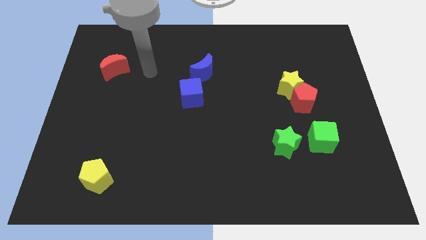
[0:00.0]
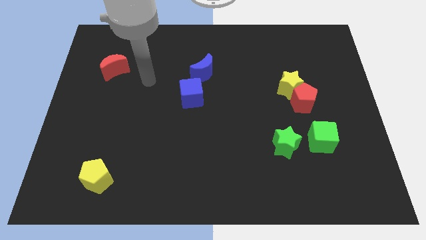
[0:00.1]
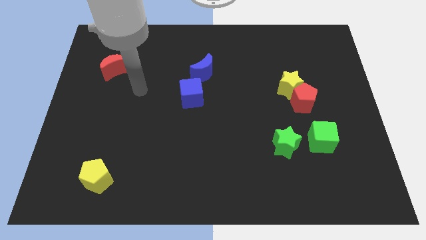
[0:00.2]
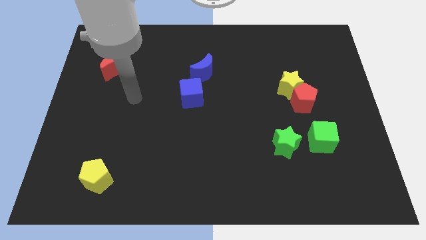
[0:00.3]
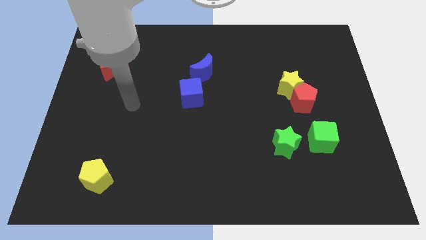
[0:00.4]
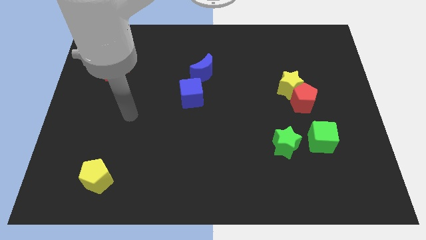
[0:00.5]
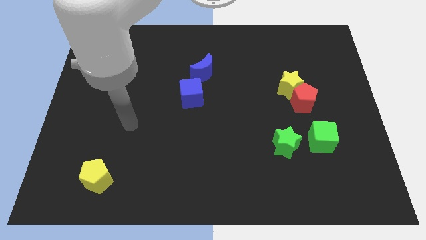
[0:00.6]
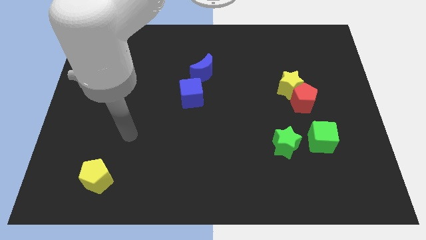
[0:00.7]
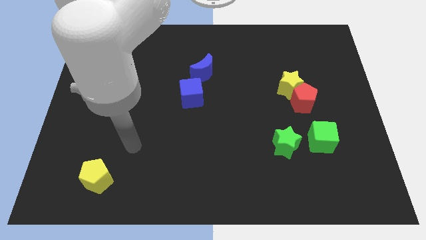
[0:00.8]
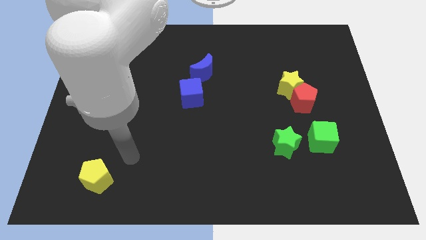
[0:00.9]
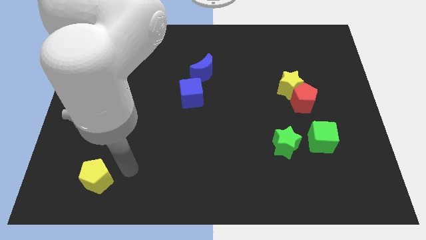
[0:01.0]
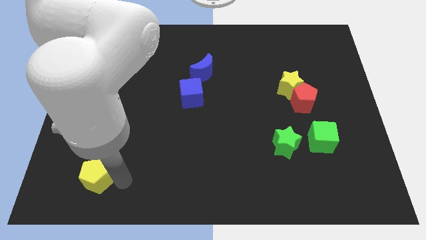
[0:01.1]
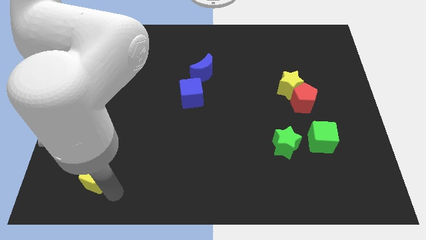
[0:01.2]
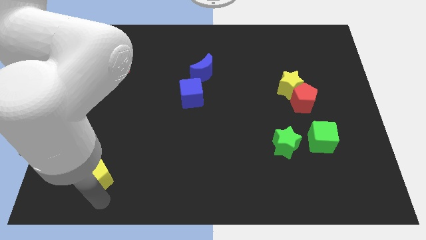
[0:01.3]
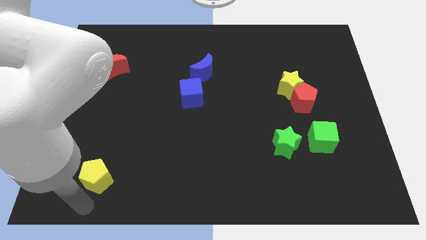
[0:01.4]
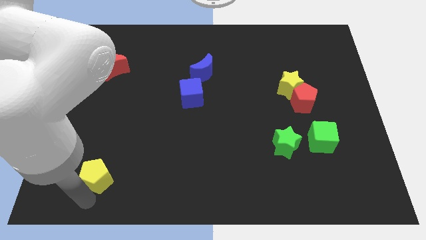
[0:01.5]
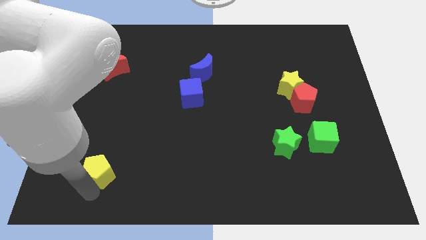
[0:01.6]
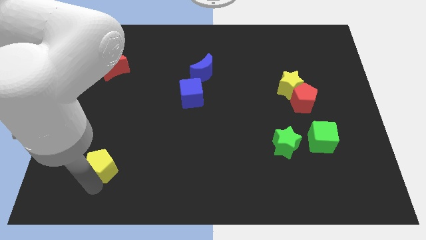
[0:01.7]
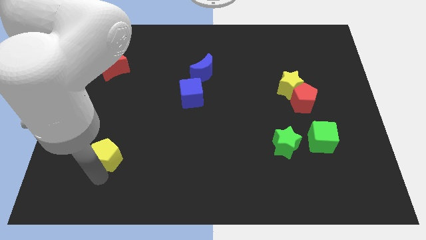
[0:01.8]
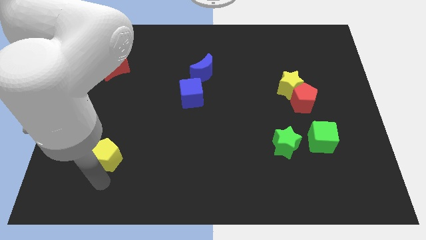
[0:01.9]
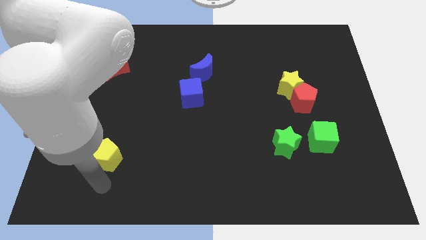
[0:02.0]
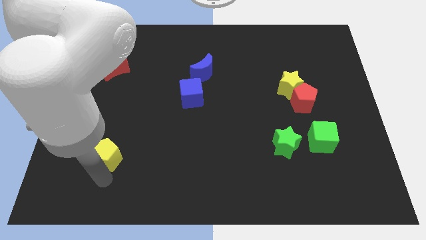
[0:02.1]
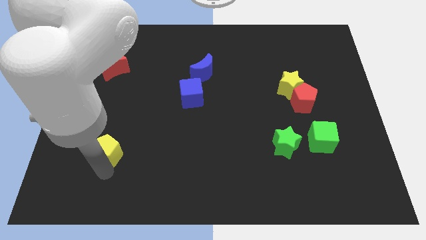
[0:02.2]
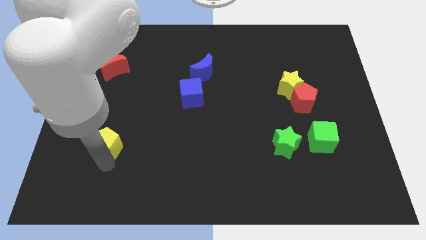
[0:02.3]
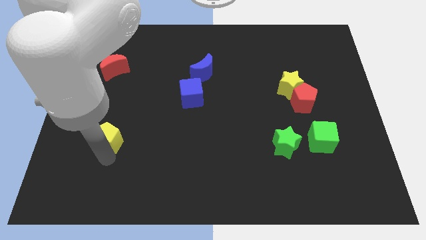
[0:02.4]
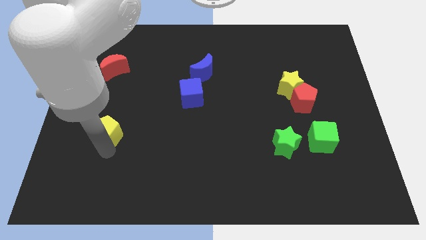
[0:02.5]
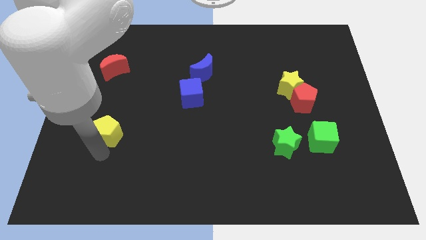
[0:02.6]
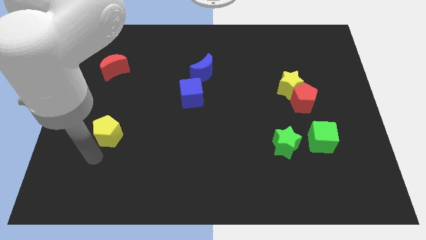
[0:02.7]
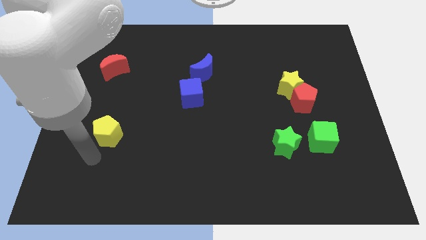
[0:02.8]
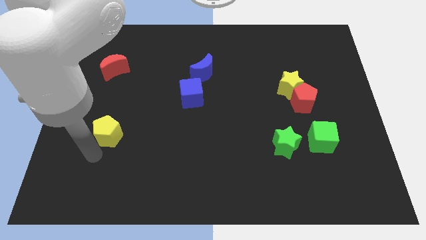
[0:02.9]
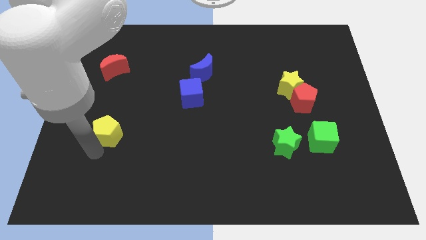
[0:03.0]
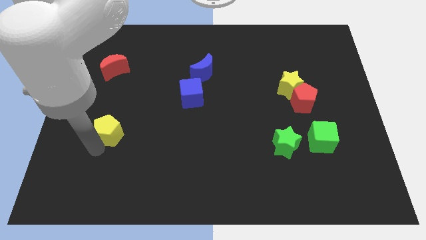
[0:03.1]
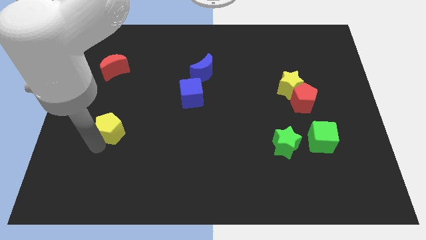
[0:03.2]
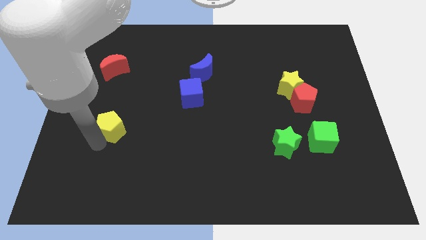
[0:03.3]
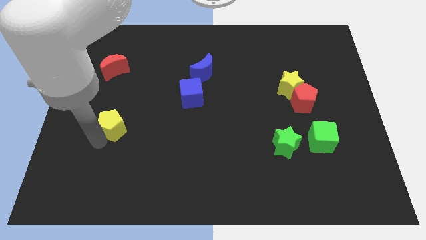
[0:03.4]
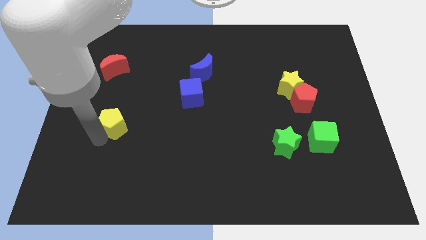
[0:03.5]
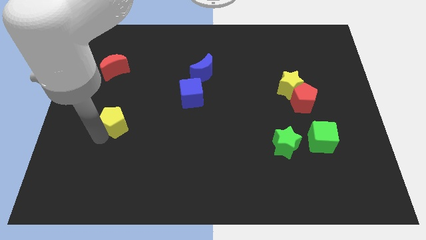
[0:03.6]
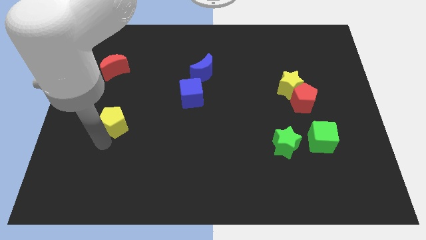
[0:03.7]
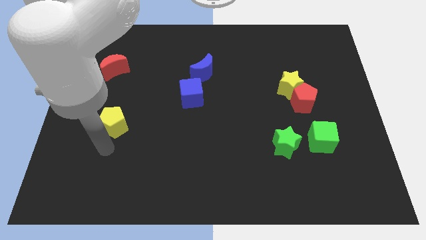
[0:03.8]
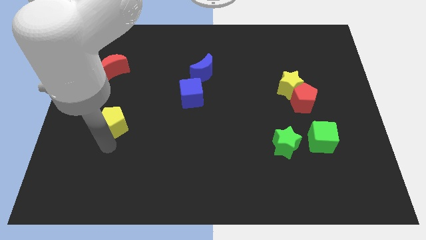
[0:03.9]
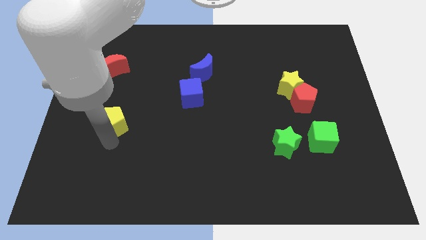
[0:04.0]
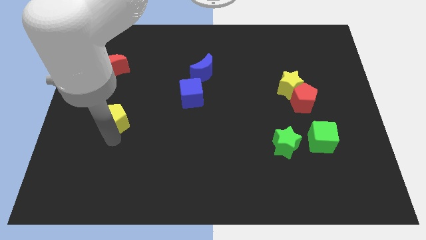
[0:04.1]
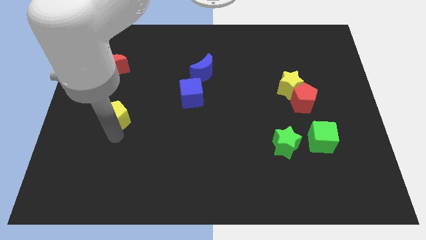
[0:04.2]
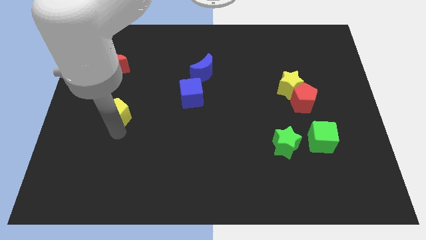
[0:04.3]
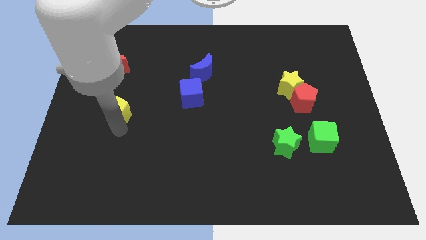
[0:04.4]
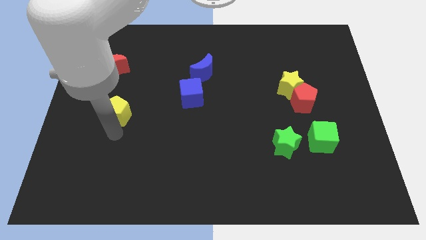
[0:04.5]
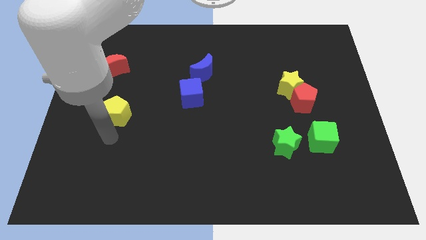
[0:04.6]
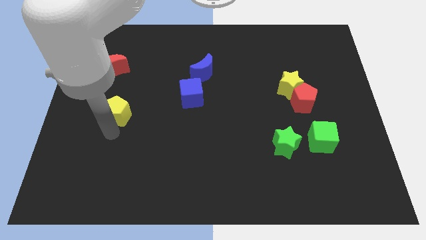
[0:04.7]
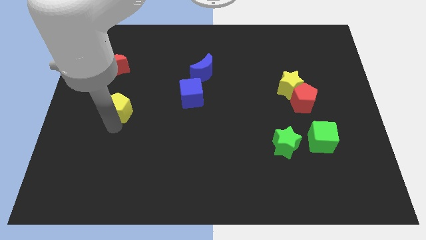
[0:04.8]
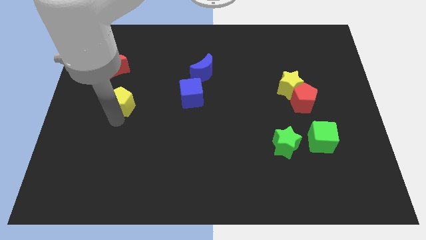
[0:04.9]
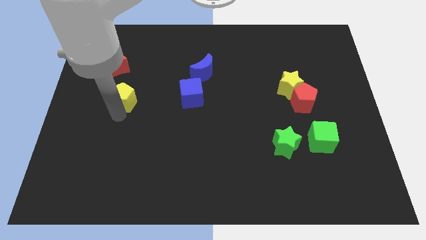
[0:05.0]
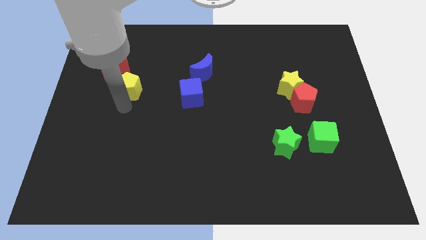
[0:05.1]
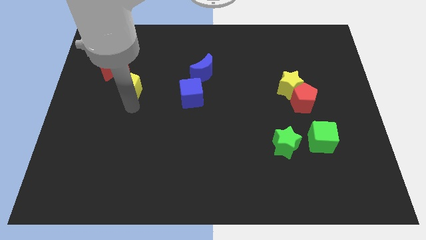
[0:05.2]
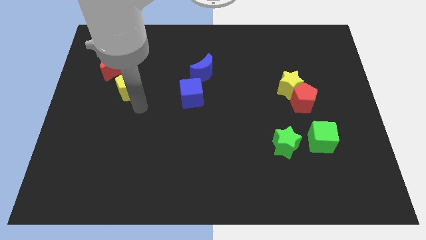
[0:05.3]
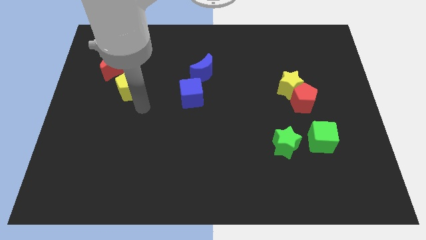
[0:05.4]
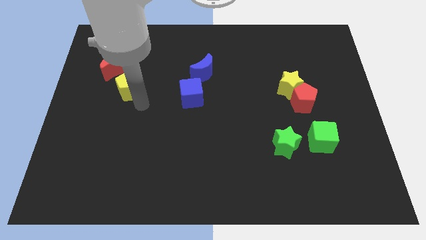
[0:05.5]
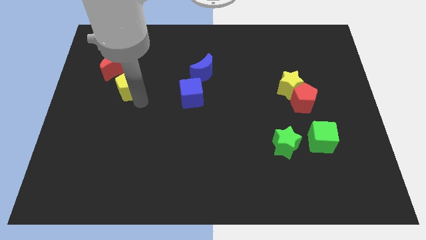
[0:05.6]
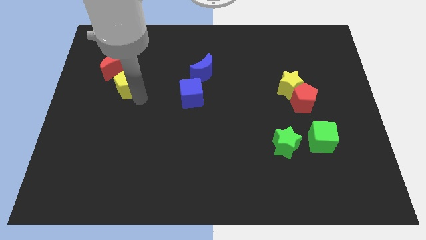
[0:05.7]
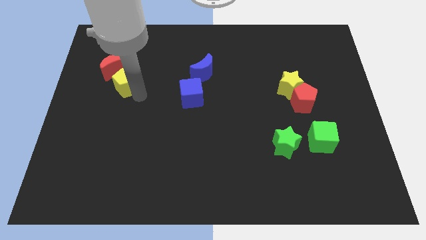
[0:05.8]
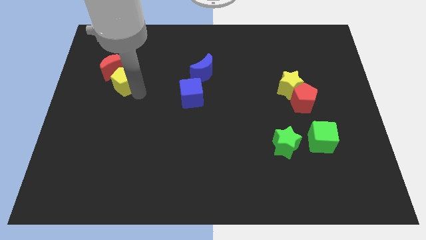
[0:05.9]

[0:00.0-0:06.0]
put the yellow pentagon to the red moon

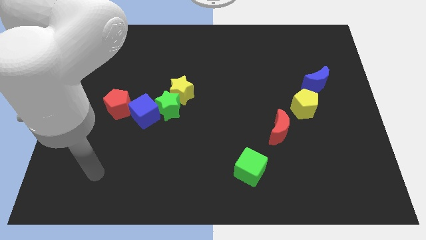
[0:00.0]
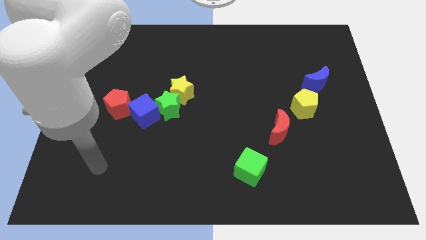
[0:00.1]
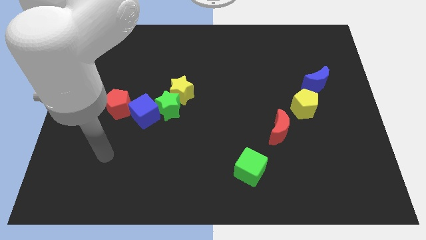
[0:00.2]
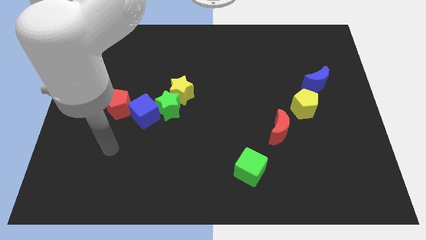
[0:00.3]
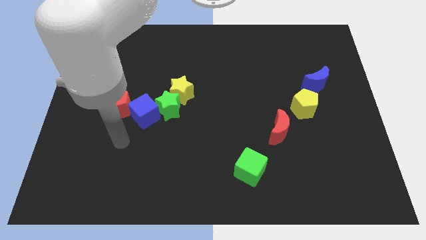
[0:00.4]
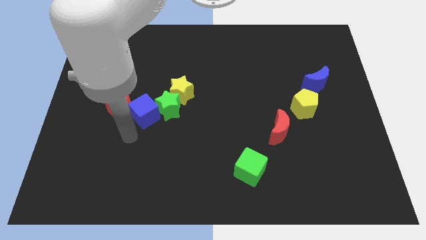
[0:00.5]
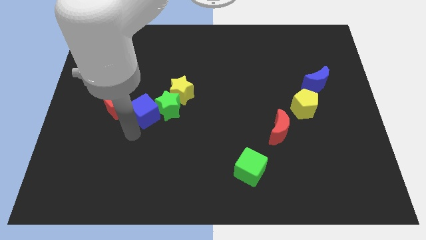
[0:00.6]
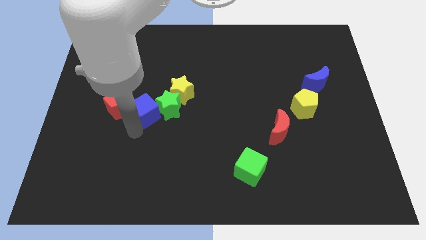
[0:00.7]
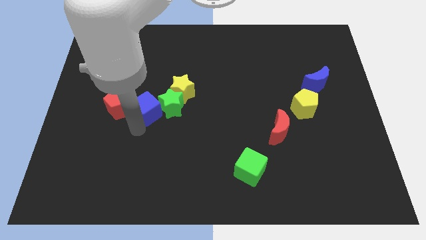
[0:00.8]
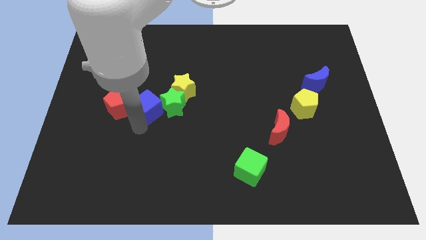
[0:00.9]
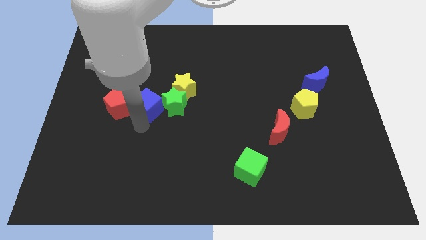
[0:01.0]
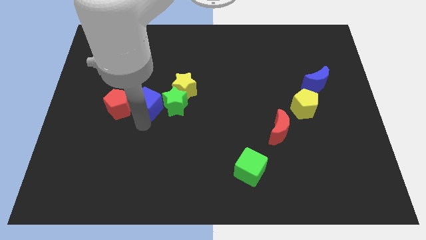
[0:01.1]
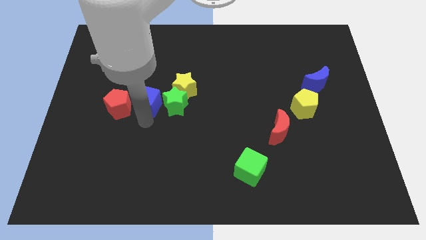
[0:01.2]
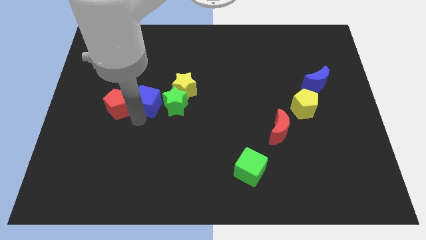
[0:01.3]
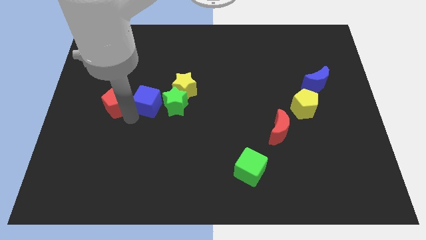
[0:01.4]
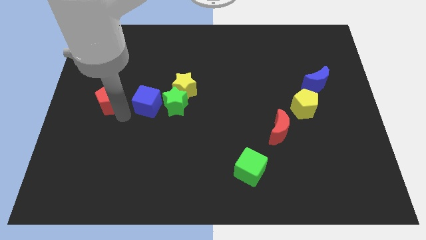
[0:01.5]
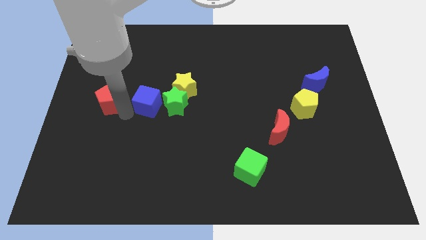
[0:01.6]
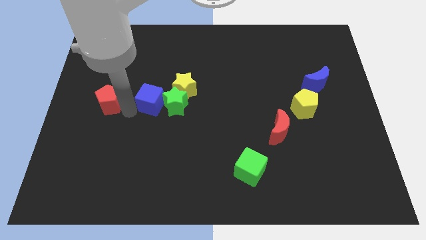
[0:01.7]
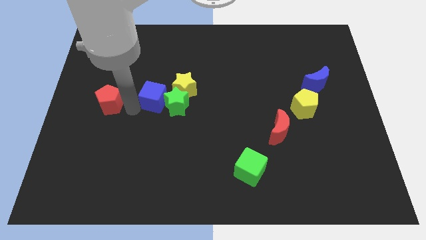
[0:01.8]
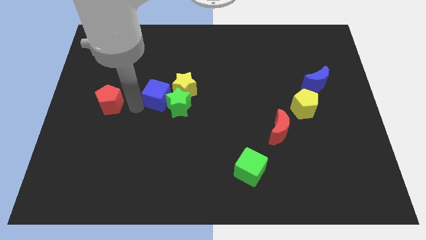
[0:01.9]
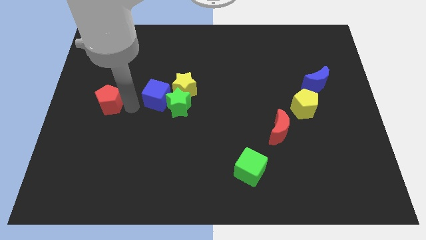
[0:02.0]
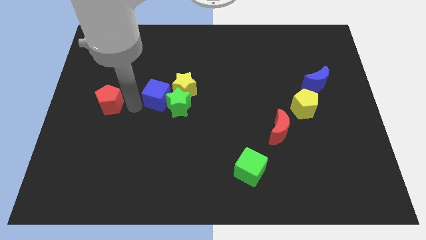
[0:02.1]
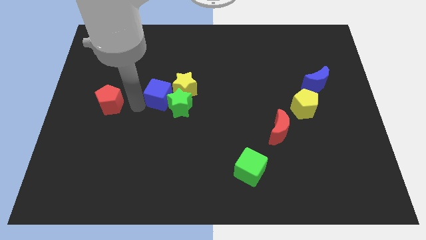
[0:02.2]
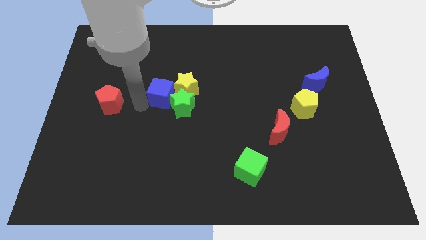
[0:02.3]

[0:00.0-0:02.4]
move the blue cube close to the yellow star
